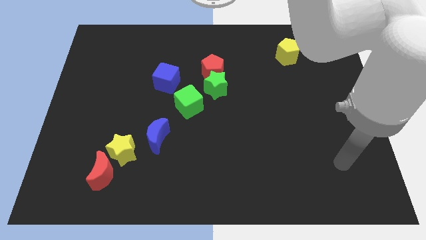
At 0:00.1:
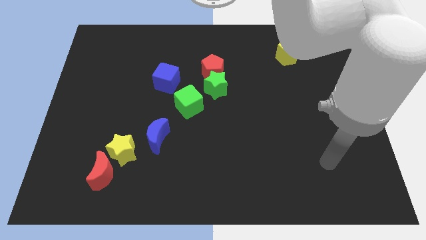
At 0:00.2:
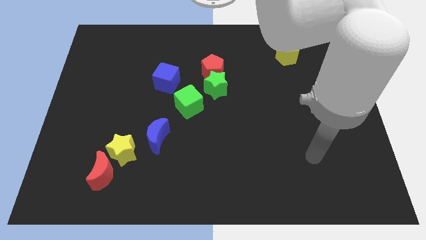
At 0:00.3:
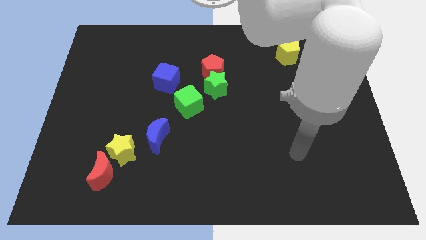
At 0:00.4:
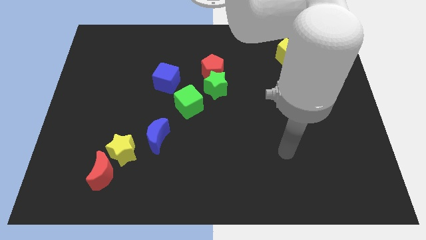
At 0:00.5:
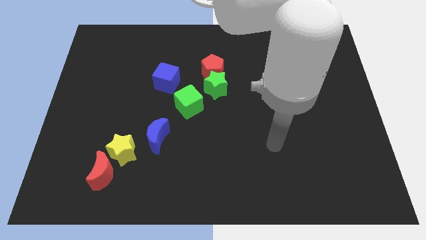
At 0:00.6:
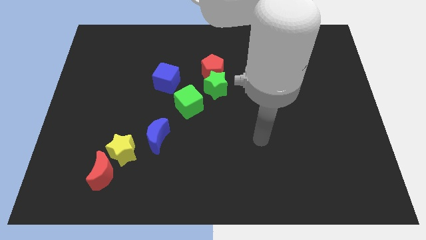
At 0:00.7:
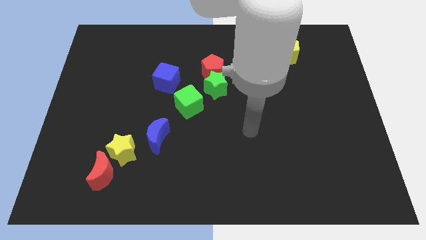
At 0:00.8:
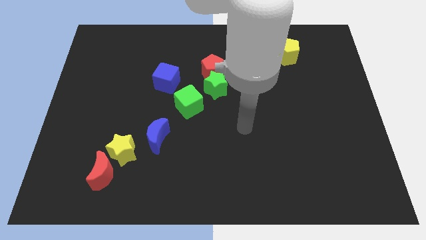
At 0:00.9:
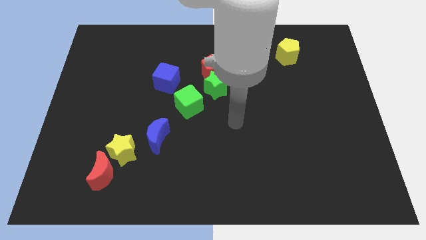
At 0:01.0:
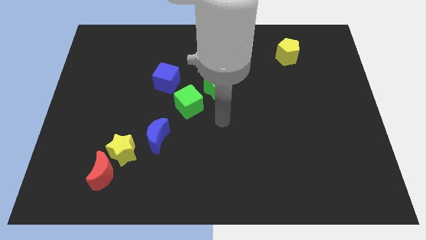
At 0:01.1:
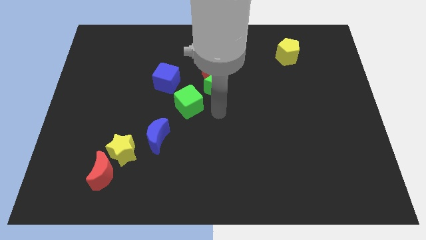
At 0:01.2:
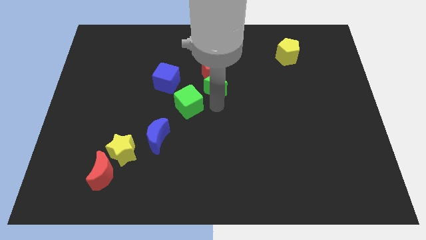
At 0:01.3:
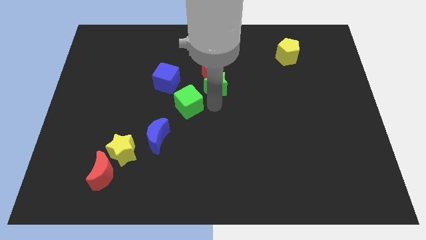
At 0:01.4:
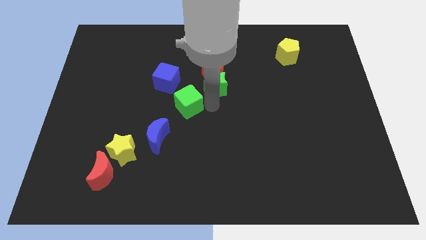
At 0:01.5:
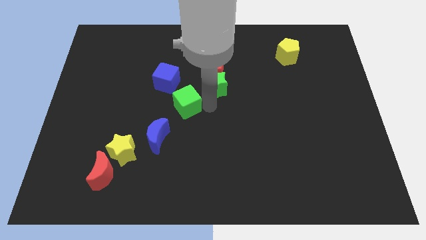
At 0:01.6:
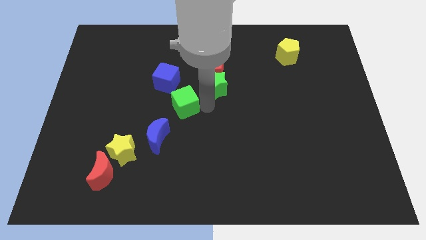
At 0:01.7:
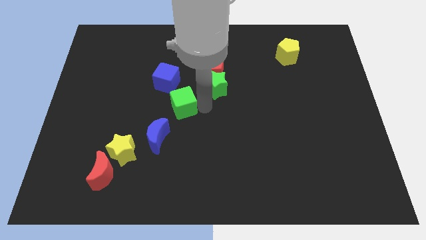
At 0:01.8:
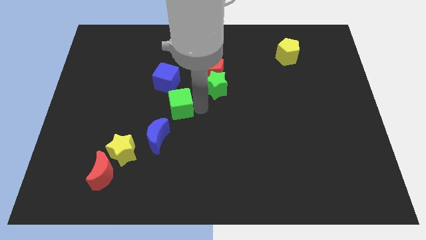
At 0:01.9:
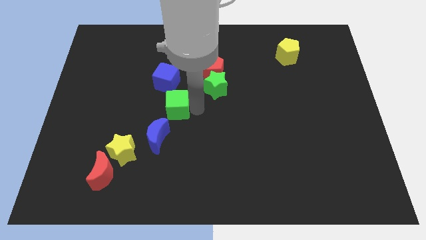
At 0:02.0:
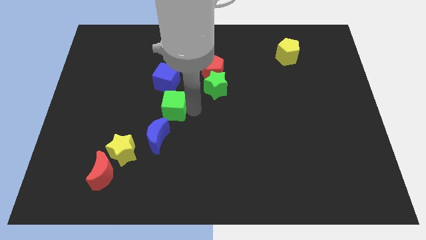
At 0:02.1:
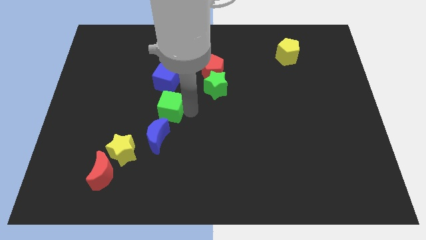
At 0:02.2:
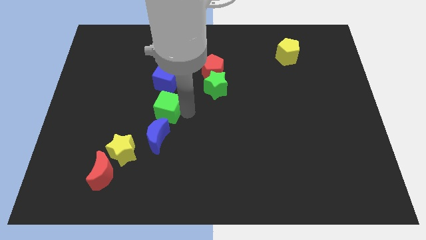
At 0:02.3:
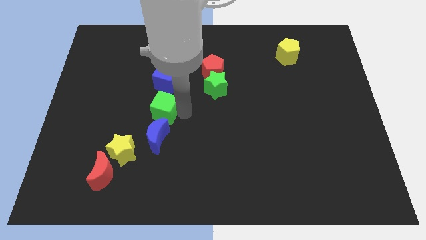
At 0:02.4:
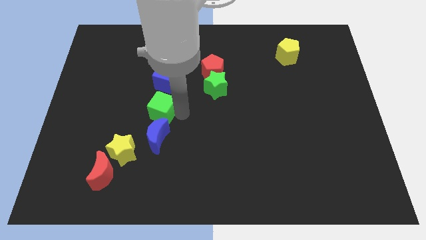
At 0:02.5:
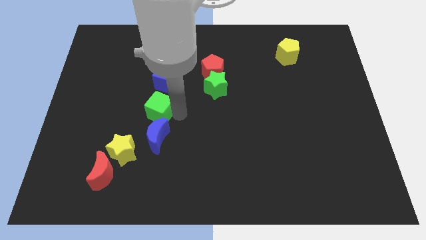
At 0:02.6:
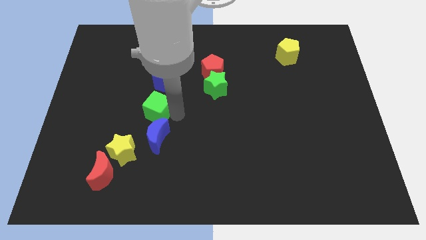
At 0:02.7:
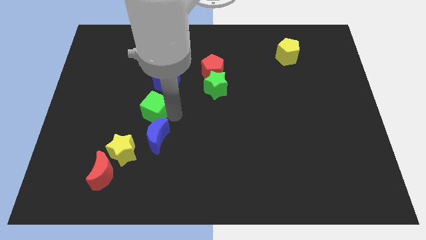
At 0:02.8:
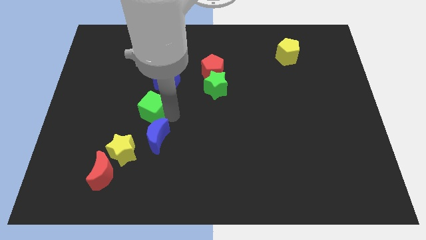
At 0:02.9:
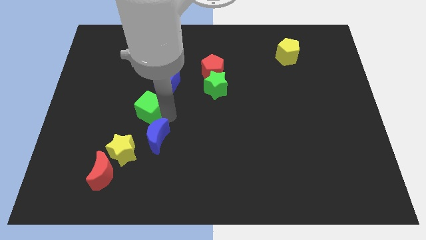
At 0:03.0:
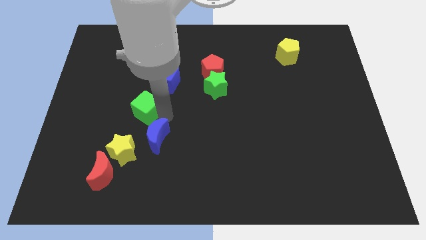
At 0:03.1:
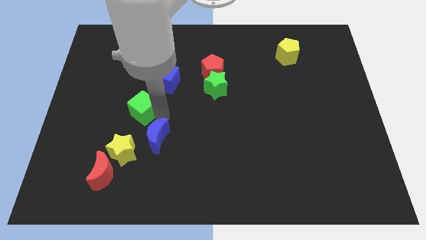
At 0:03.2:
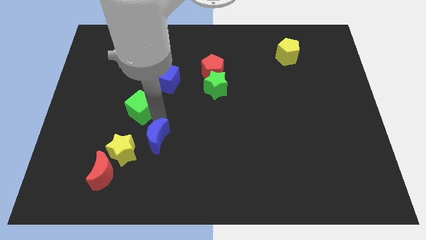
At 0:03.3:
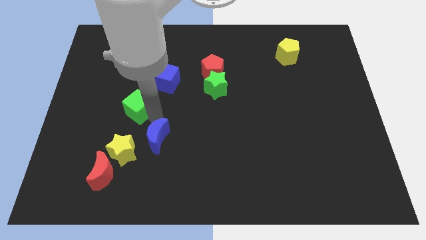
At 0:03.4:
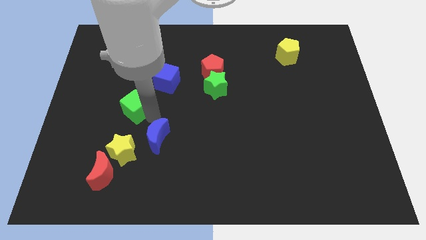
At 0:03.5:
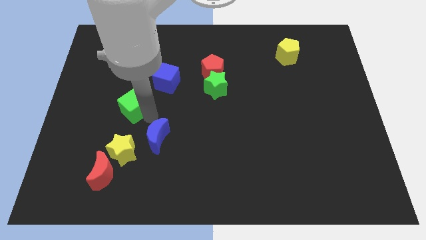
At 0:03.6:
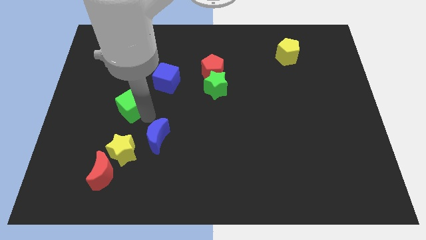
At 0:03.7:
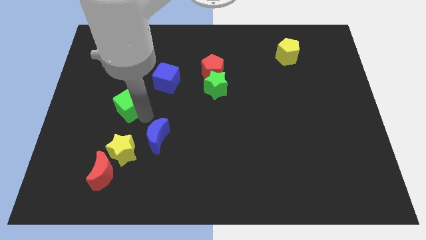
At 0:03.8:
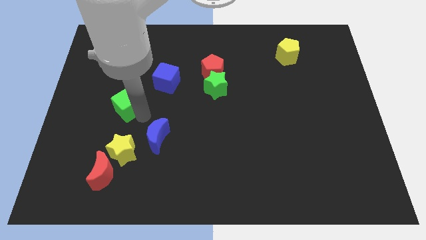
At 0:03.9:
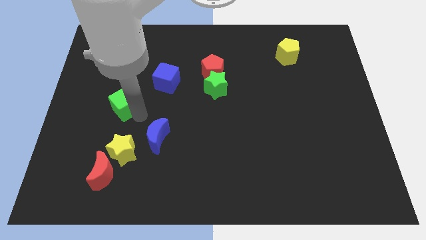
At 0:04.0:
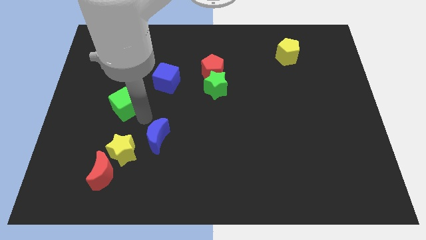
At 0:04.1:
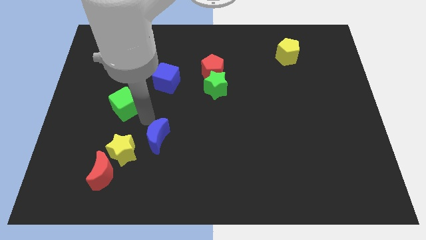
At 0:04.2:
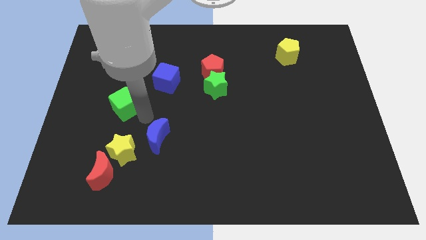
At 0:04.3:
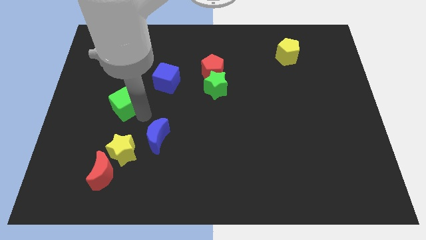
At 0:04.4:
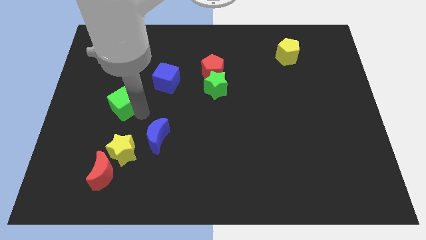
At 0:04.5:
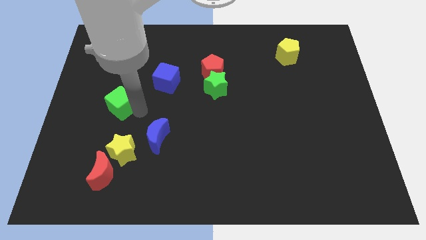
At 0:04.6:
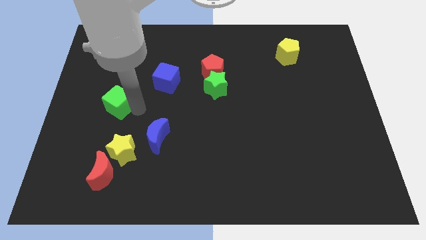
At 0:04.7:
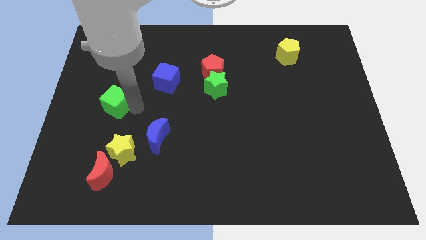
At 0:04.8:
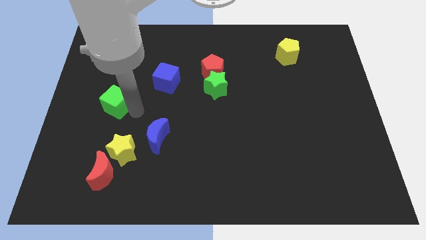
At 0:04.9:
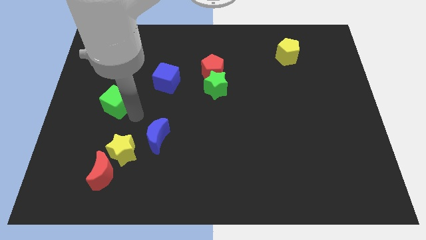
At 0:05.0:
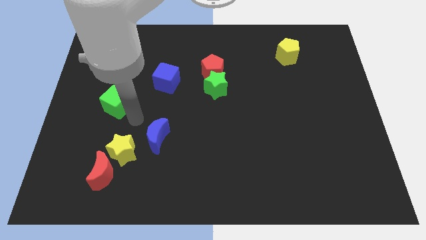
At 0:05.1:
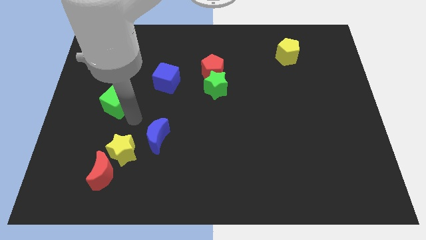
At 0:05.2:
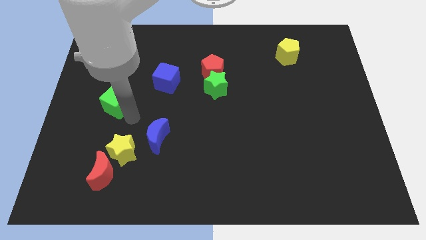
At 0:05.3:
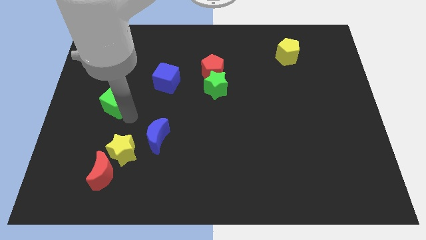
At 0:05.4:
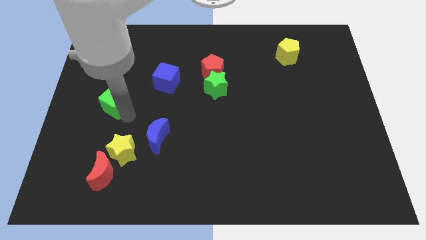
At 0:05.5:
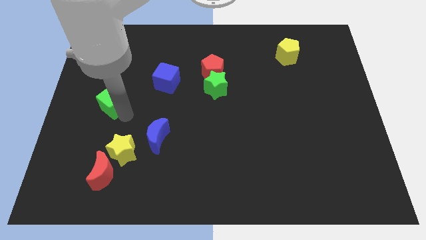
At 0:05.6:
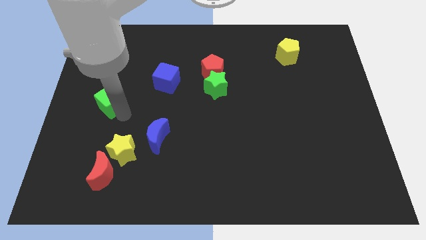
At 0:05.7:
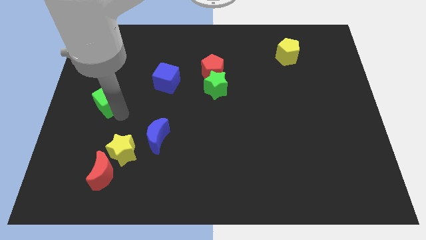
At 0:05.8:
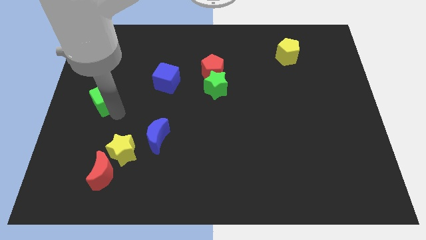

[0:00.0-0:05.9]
put the green cube to the left side

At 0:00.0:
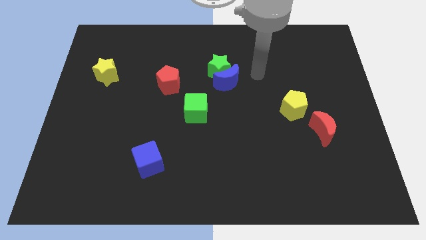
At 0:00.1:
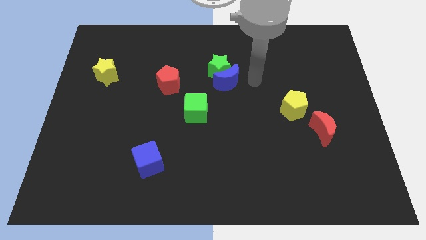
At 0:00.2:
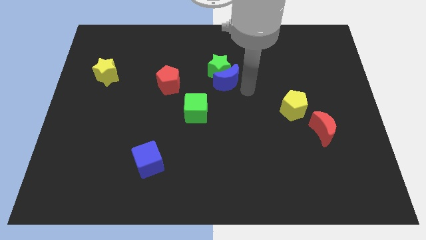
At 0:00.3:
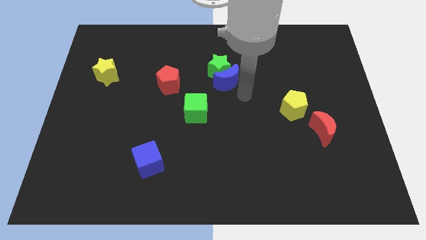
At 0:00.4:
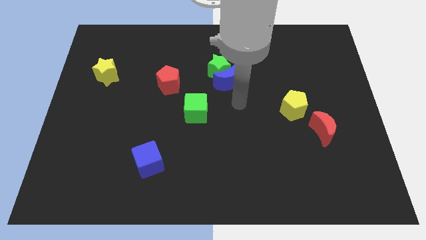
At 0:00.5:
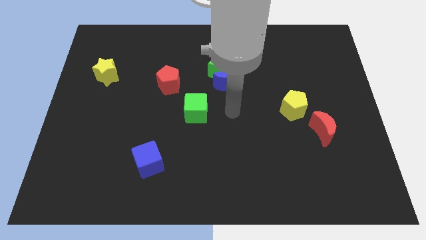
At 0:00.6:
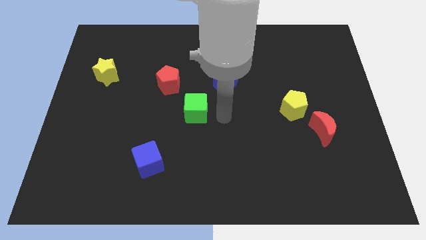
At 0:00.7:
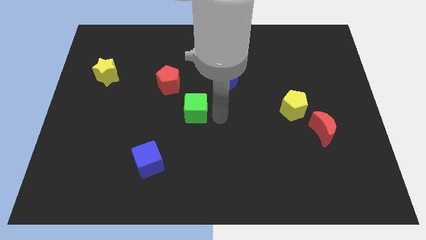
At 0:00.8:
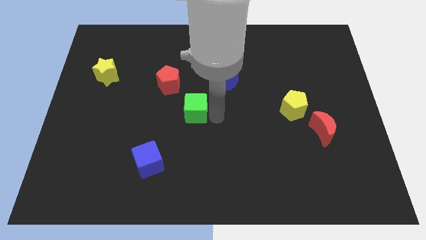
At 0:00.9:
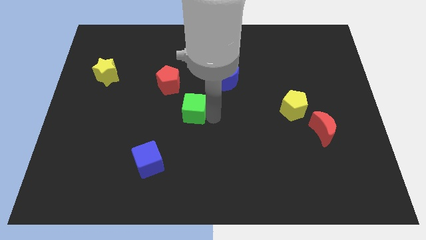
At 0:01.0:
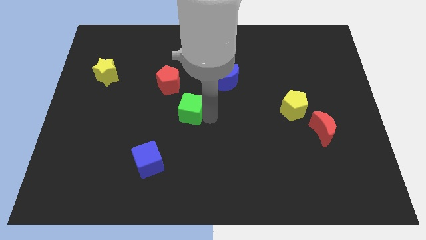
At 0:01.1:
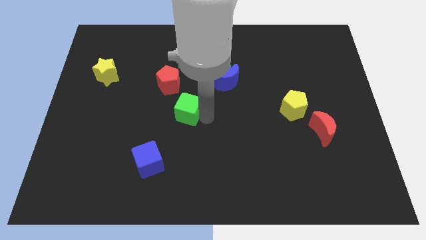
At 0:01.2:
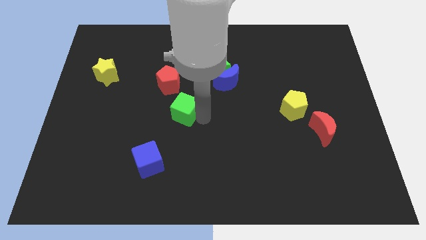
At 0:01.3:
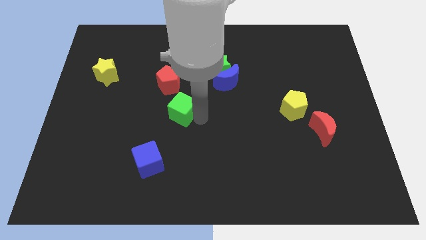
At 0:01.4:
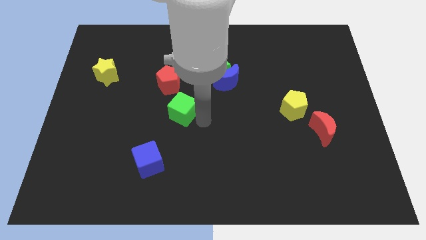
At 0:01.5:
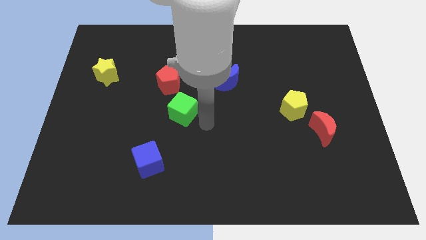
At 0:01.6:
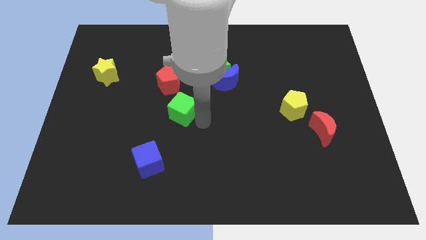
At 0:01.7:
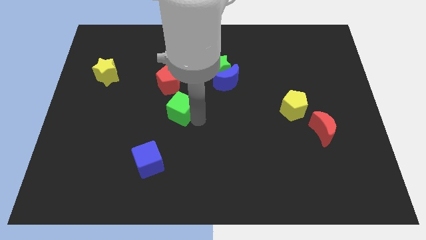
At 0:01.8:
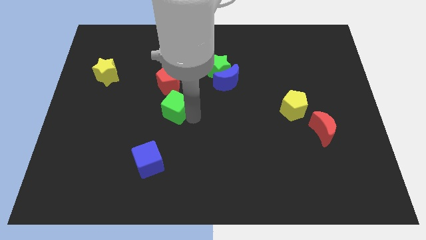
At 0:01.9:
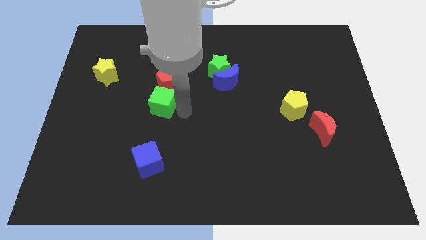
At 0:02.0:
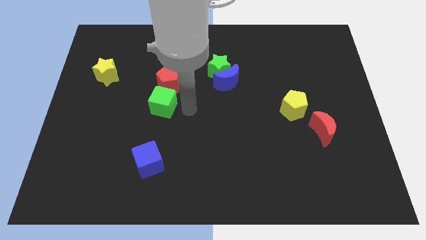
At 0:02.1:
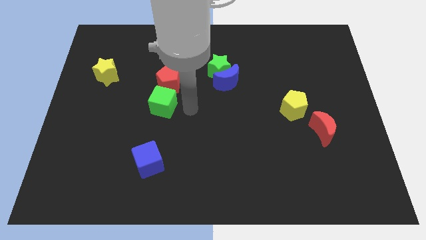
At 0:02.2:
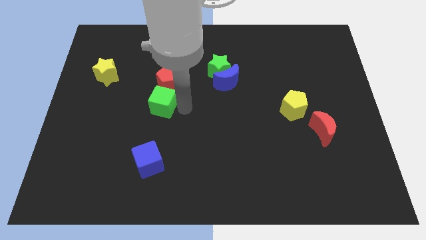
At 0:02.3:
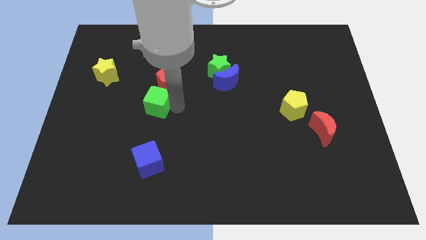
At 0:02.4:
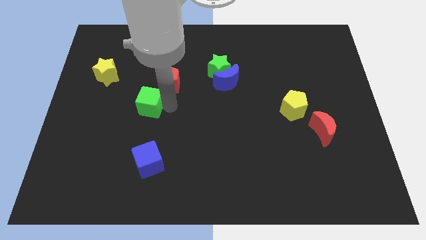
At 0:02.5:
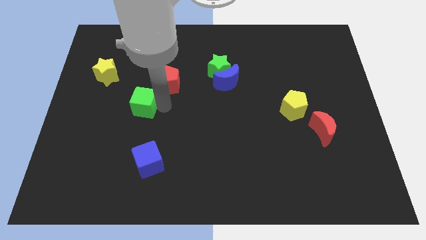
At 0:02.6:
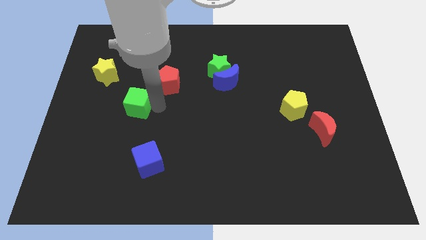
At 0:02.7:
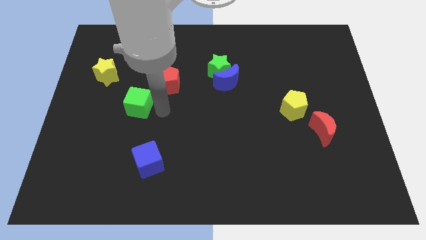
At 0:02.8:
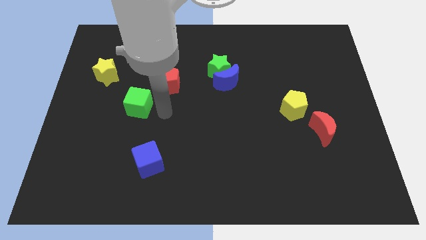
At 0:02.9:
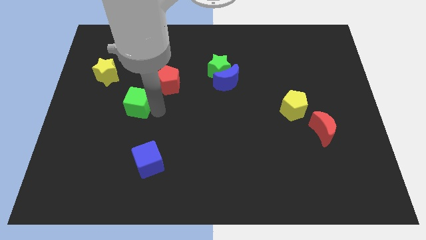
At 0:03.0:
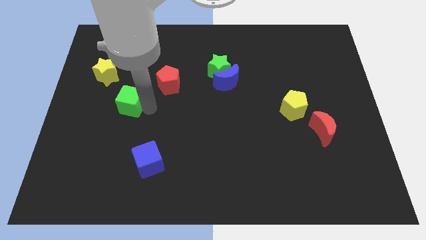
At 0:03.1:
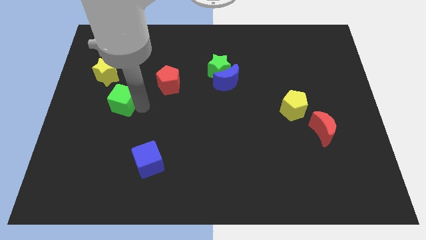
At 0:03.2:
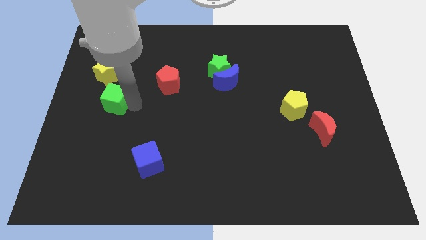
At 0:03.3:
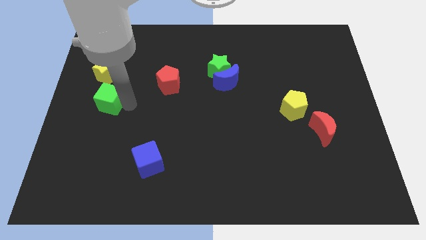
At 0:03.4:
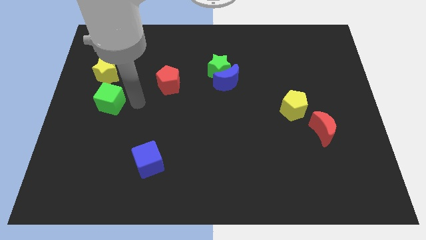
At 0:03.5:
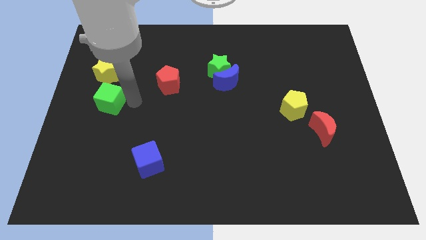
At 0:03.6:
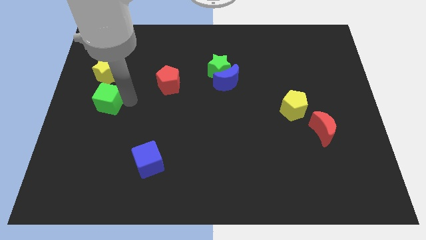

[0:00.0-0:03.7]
move the green cube to the left side of the board
